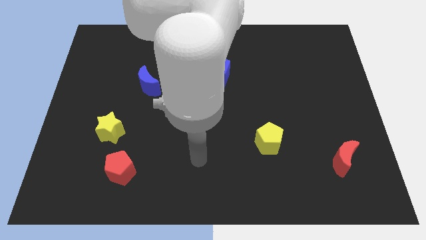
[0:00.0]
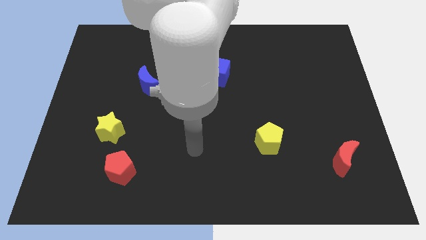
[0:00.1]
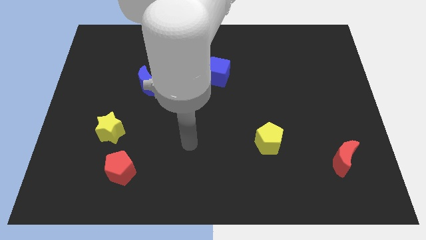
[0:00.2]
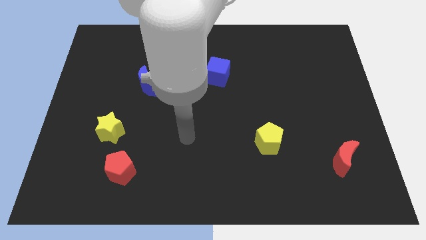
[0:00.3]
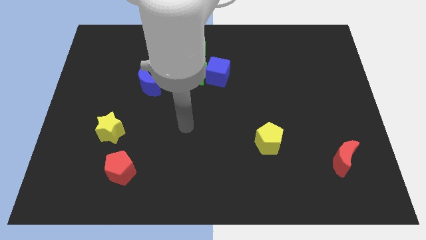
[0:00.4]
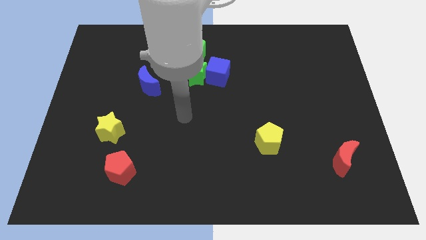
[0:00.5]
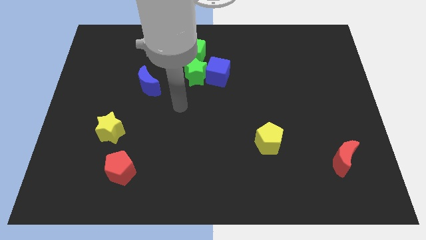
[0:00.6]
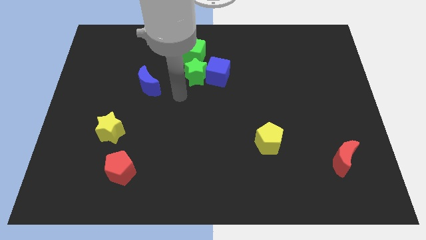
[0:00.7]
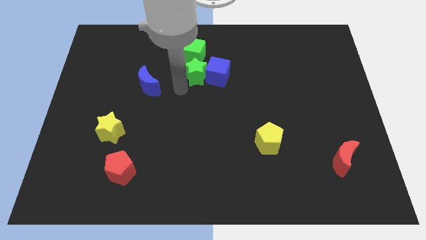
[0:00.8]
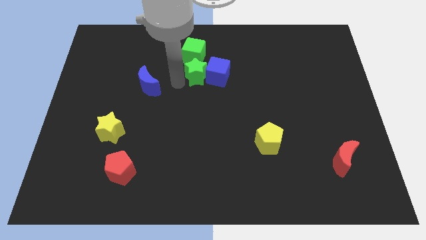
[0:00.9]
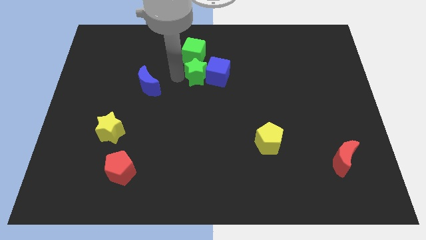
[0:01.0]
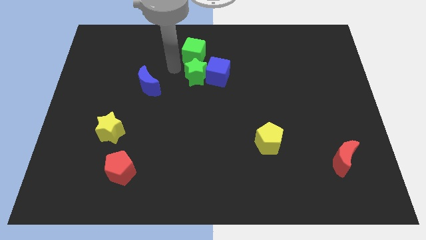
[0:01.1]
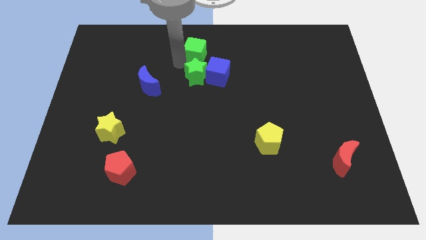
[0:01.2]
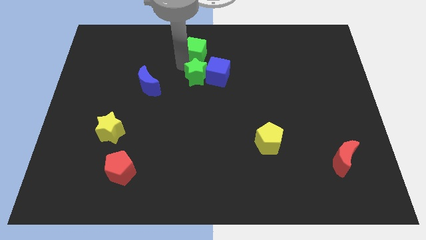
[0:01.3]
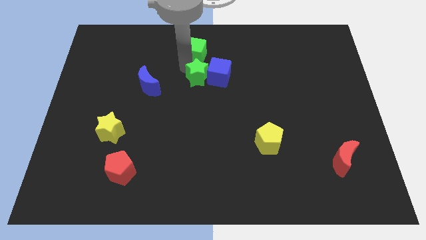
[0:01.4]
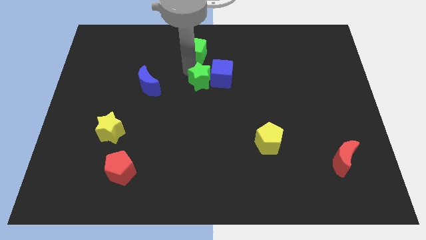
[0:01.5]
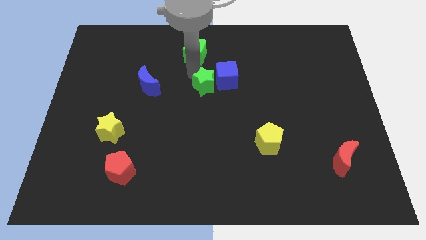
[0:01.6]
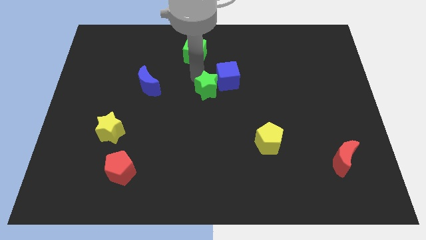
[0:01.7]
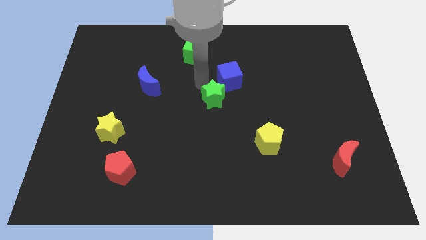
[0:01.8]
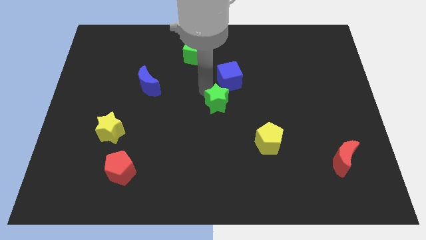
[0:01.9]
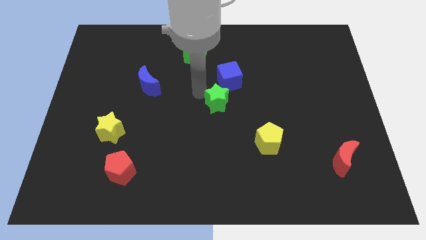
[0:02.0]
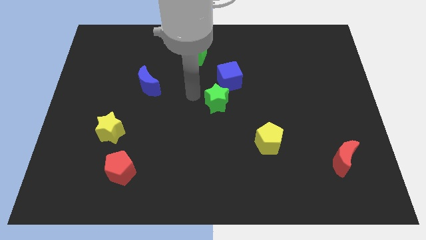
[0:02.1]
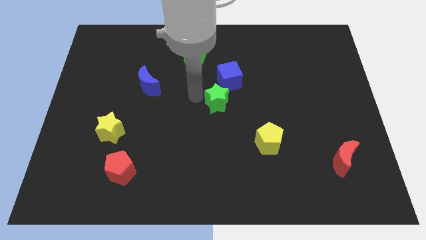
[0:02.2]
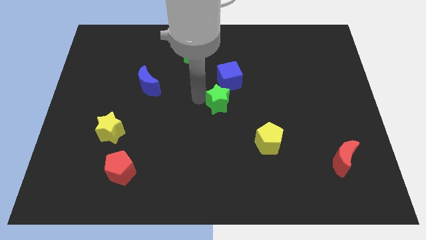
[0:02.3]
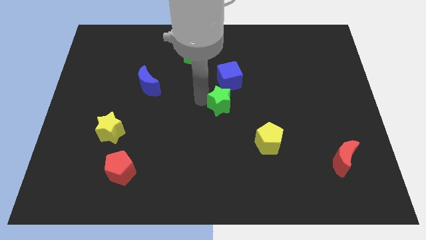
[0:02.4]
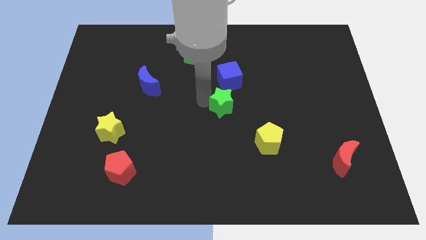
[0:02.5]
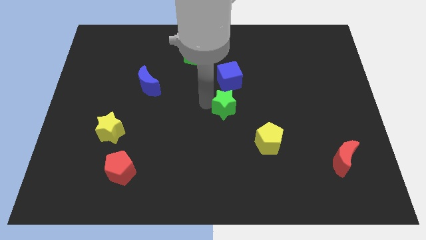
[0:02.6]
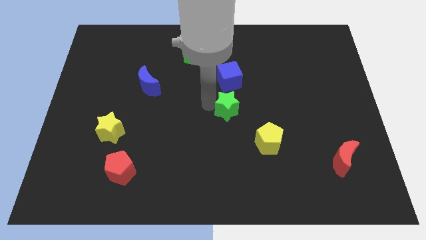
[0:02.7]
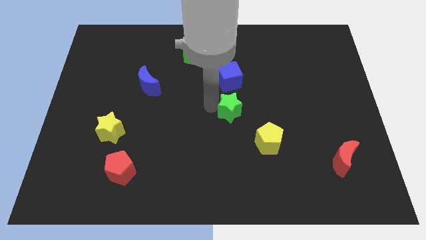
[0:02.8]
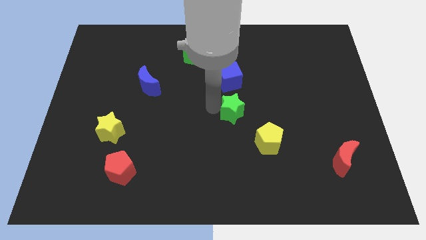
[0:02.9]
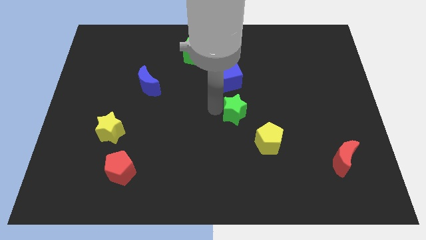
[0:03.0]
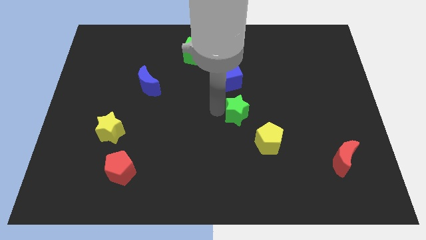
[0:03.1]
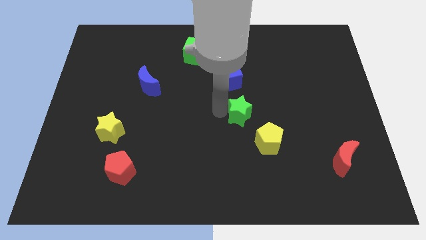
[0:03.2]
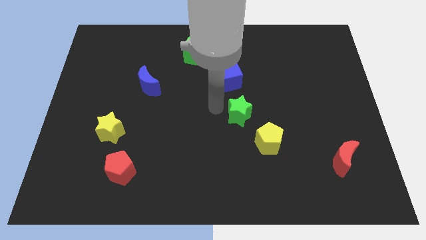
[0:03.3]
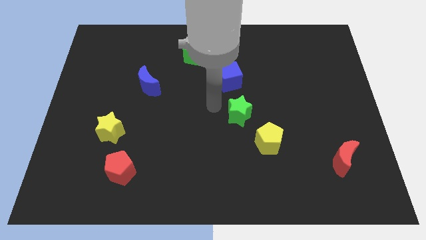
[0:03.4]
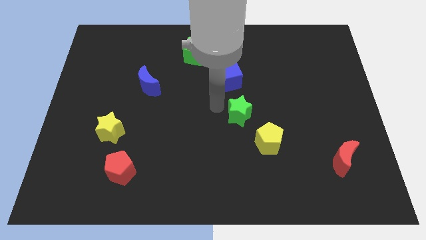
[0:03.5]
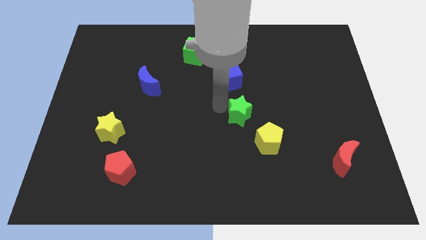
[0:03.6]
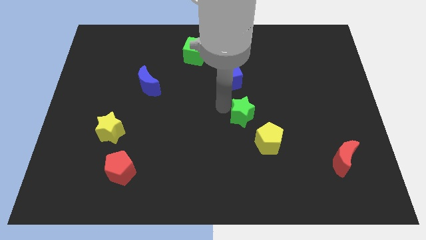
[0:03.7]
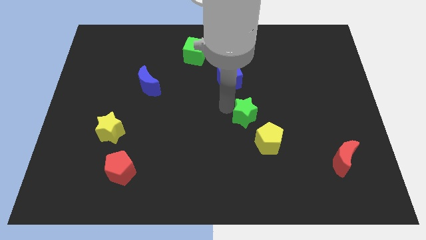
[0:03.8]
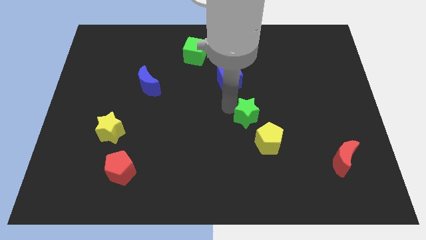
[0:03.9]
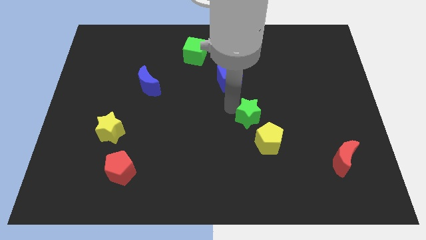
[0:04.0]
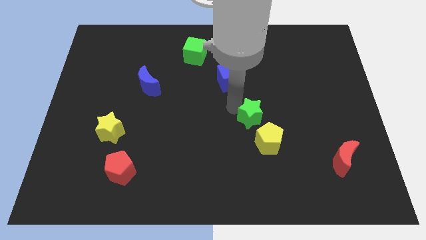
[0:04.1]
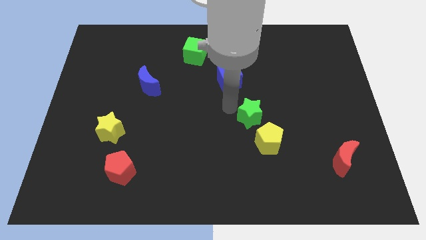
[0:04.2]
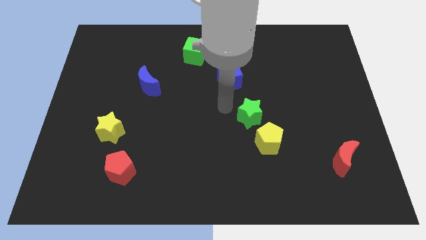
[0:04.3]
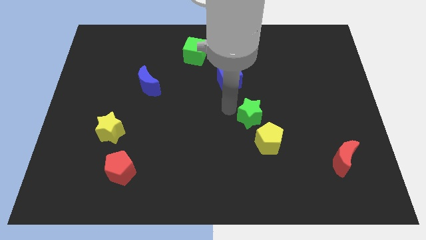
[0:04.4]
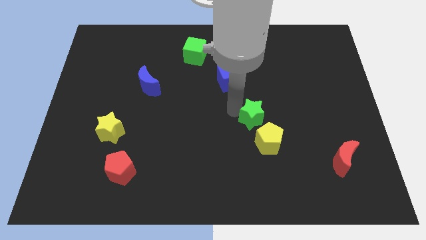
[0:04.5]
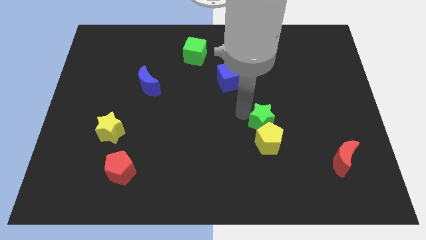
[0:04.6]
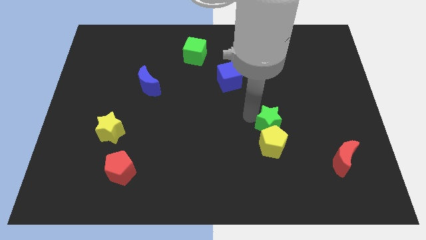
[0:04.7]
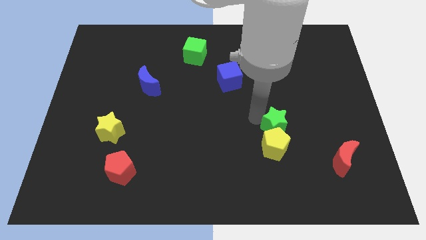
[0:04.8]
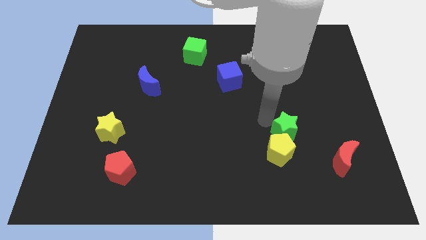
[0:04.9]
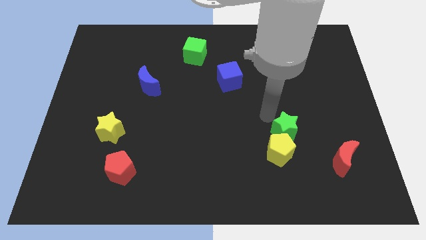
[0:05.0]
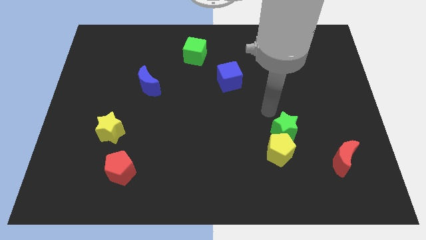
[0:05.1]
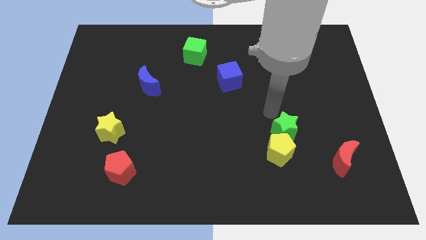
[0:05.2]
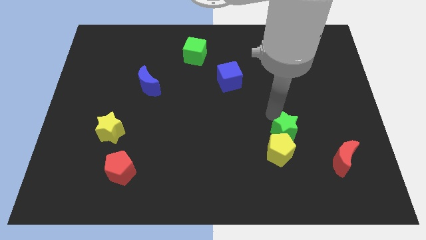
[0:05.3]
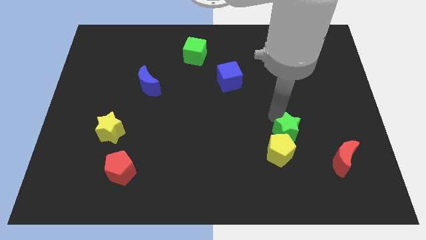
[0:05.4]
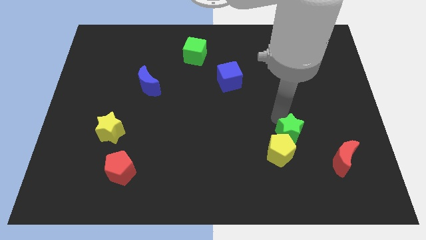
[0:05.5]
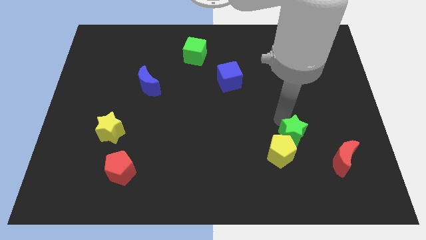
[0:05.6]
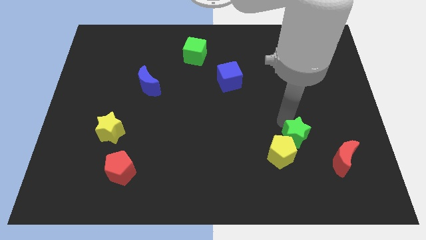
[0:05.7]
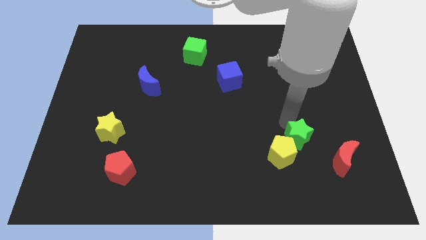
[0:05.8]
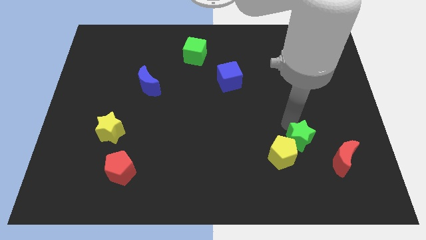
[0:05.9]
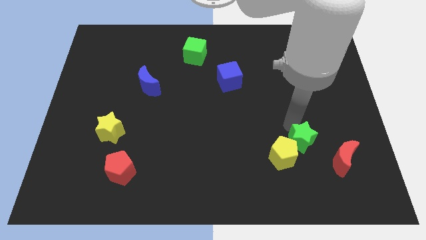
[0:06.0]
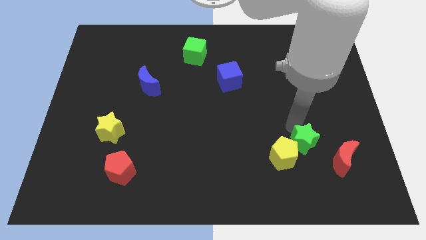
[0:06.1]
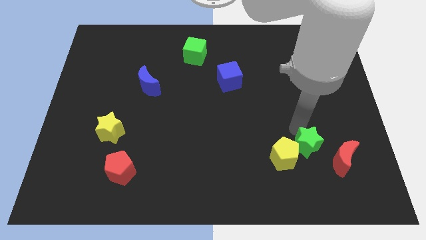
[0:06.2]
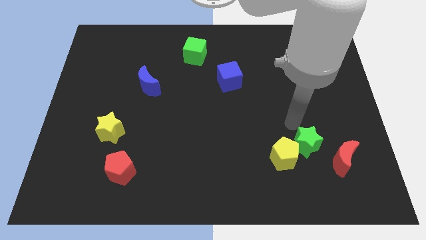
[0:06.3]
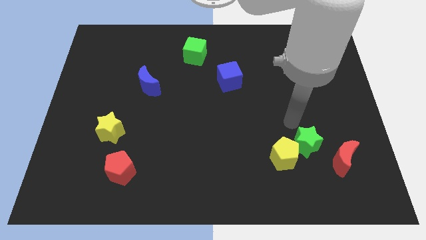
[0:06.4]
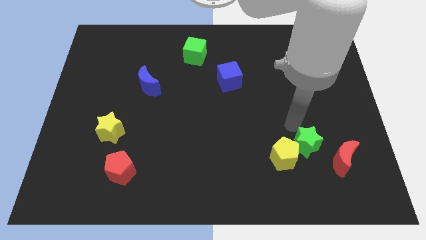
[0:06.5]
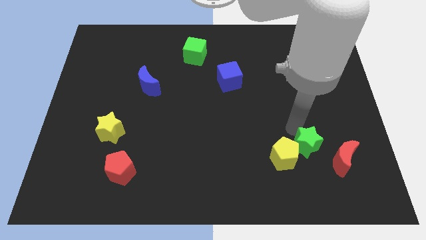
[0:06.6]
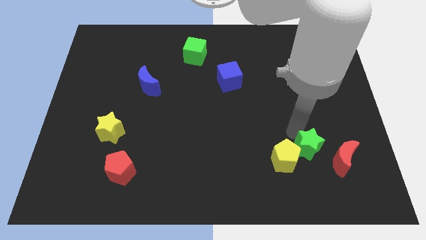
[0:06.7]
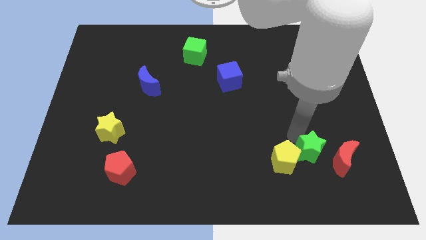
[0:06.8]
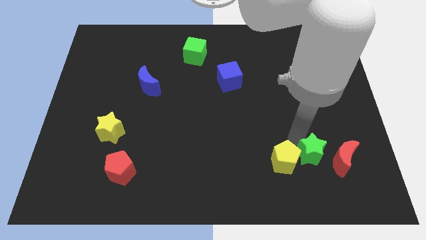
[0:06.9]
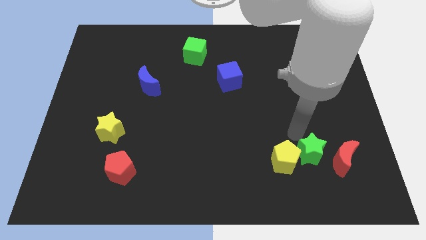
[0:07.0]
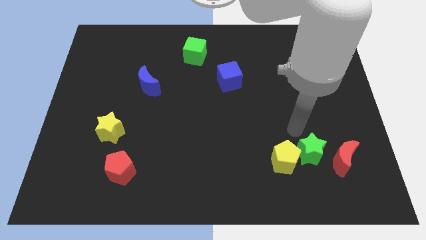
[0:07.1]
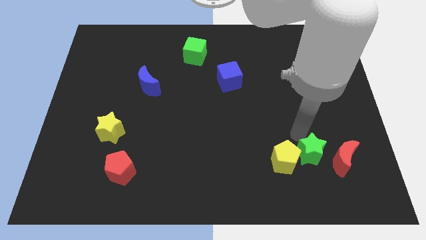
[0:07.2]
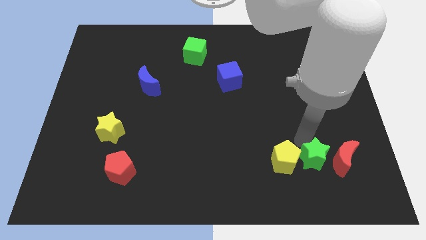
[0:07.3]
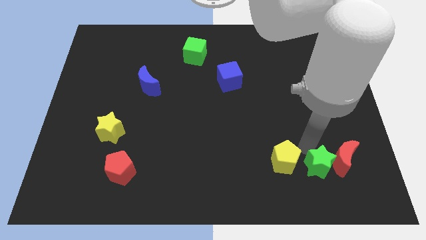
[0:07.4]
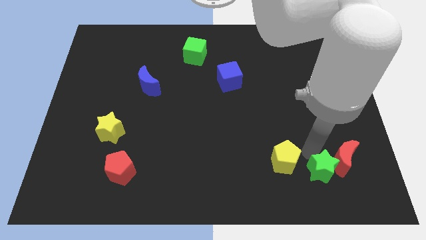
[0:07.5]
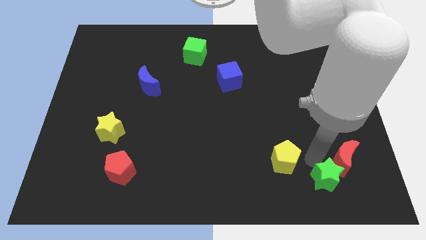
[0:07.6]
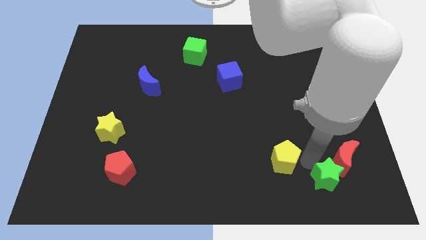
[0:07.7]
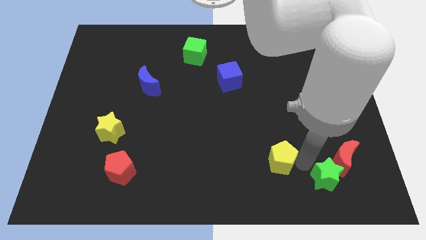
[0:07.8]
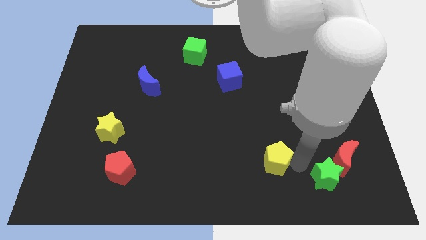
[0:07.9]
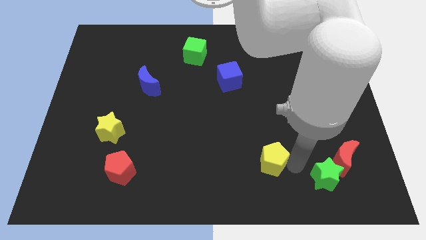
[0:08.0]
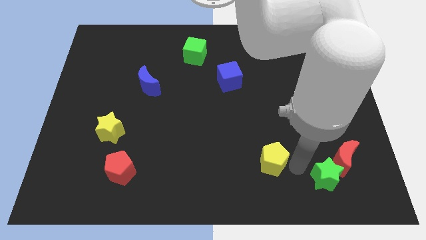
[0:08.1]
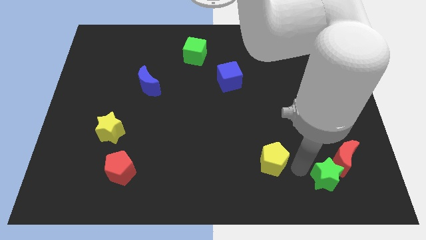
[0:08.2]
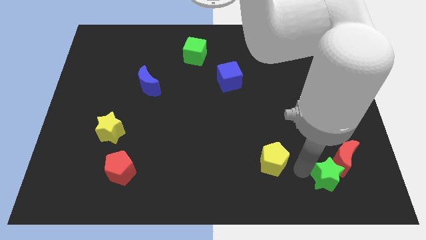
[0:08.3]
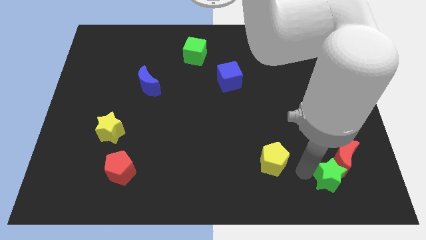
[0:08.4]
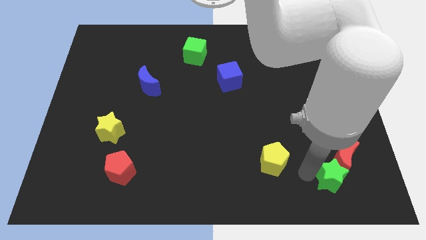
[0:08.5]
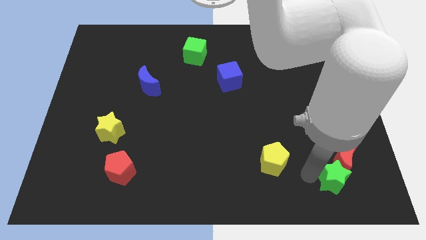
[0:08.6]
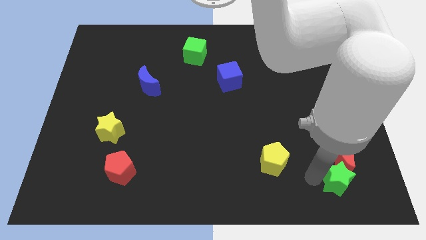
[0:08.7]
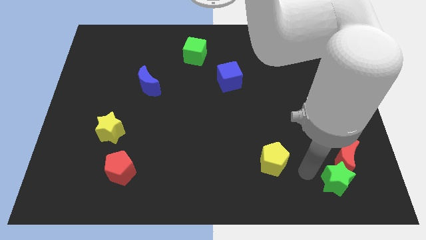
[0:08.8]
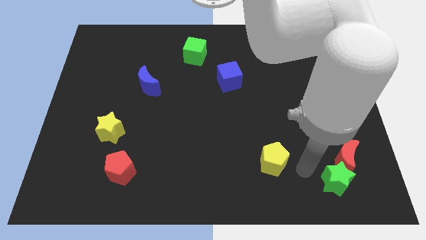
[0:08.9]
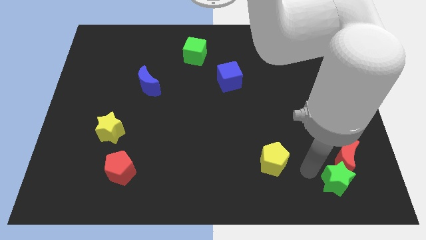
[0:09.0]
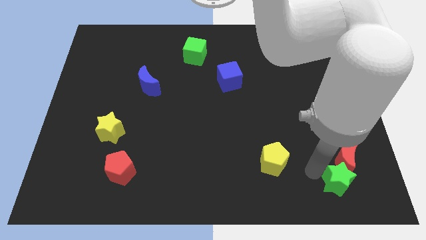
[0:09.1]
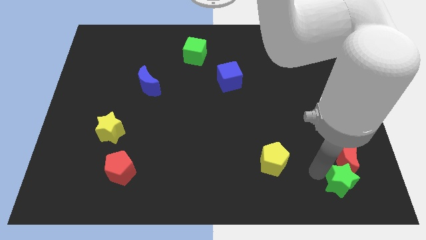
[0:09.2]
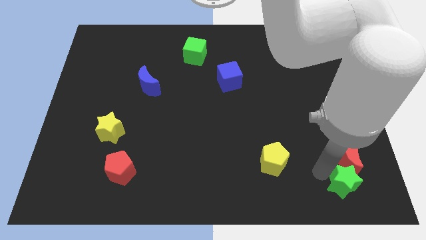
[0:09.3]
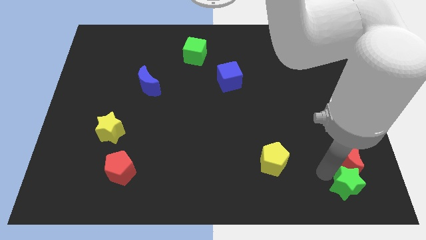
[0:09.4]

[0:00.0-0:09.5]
put the green star to the bottom right
